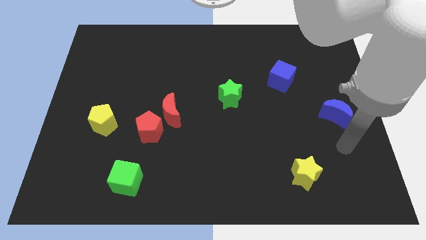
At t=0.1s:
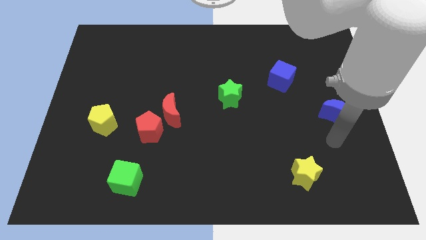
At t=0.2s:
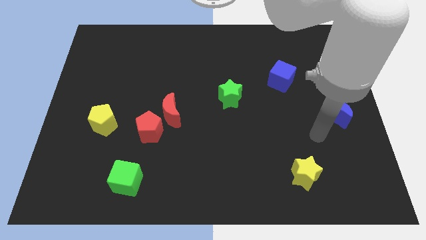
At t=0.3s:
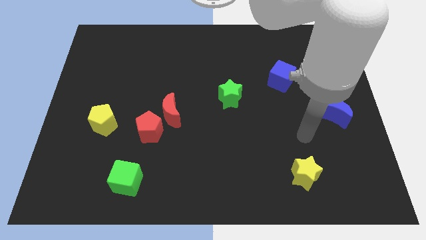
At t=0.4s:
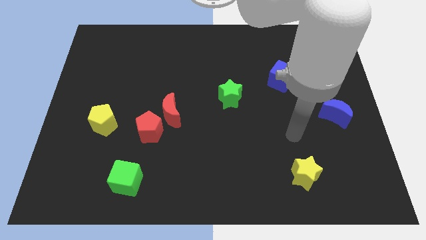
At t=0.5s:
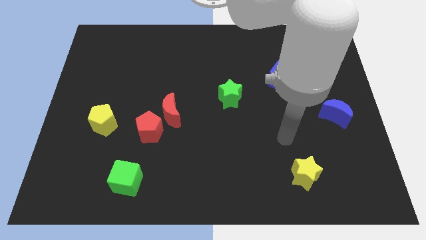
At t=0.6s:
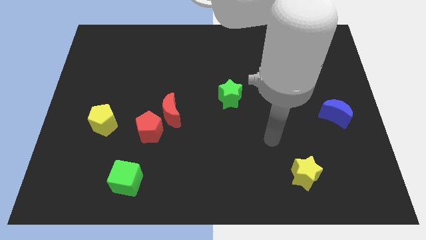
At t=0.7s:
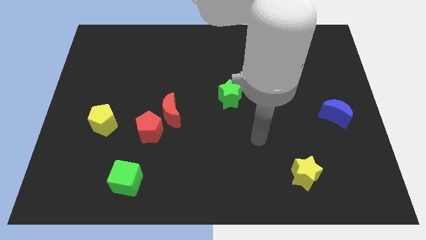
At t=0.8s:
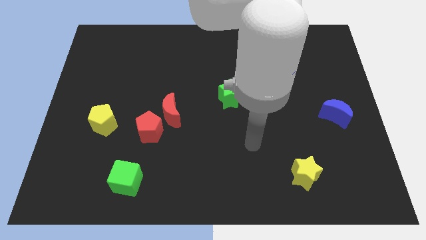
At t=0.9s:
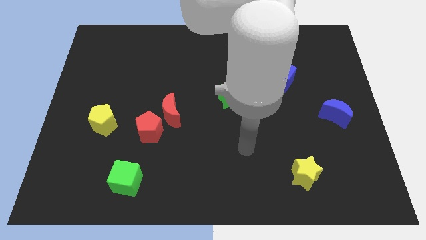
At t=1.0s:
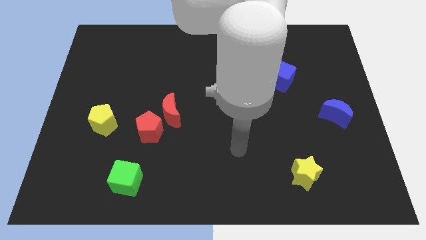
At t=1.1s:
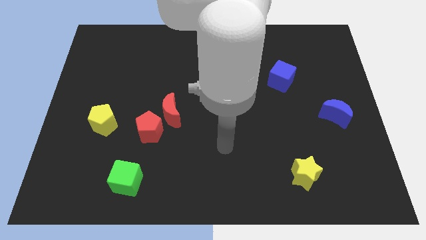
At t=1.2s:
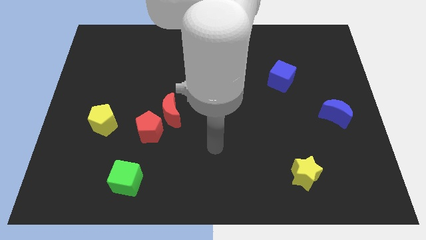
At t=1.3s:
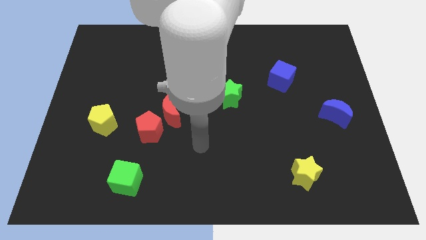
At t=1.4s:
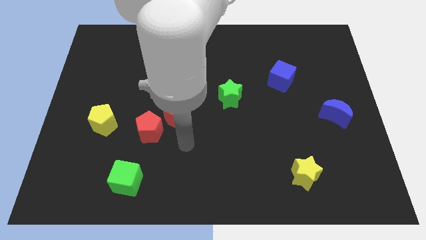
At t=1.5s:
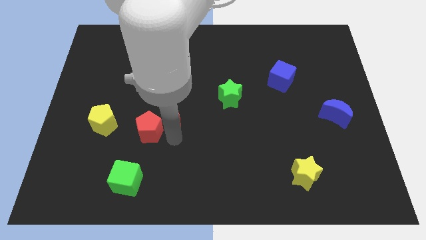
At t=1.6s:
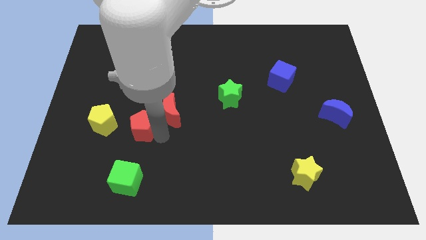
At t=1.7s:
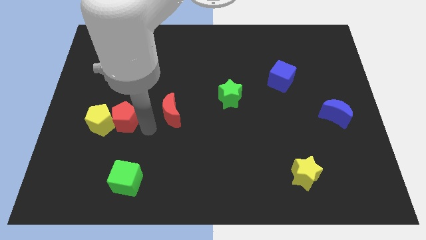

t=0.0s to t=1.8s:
separate the red moon from the red pentagon

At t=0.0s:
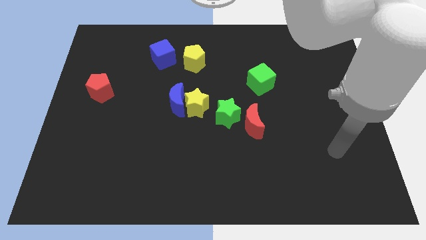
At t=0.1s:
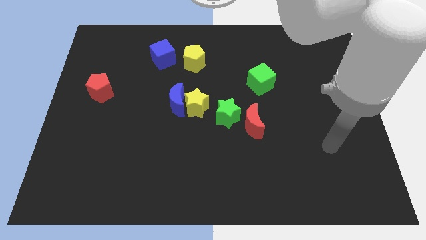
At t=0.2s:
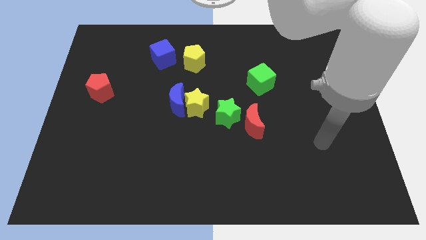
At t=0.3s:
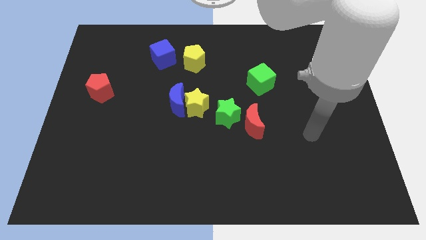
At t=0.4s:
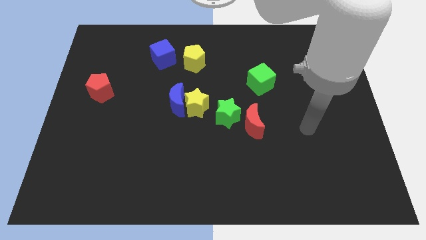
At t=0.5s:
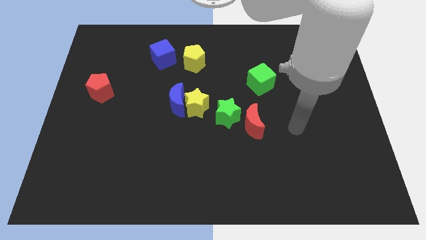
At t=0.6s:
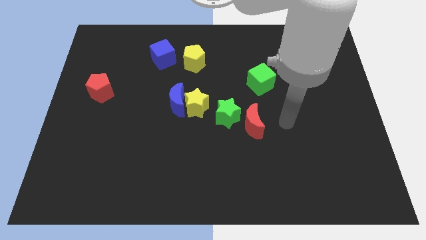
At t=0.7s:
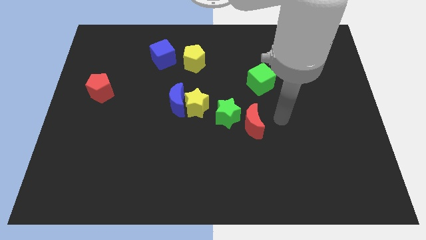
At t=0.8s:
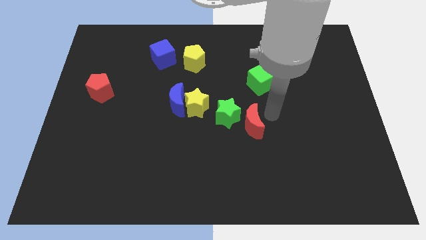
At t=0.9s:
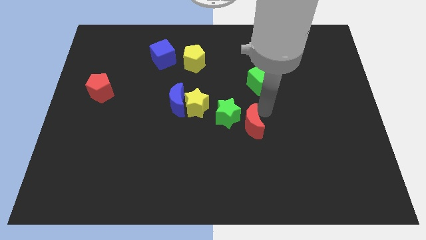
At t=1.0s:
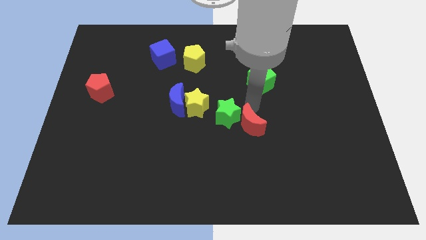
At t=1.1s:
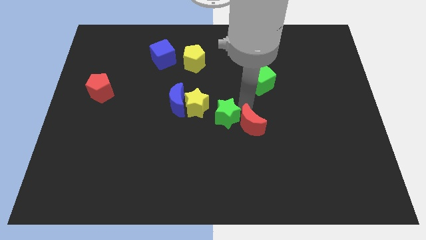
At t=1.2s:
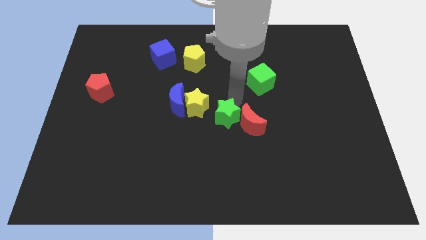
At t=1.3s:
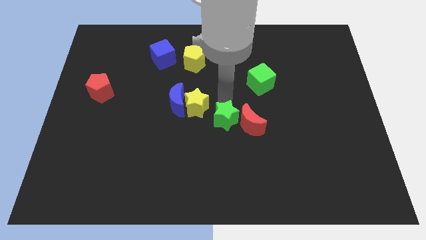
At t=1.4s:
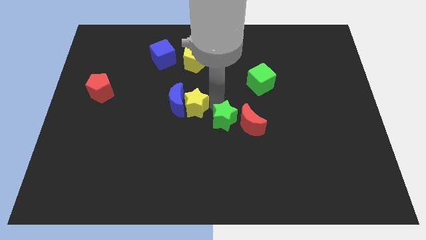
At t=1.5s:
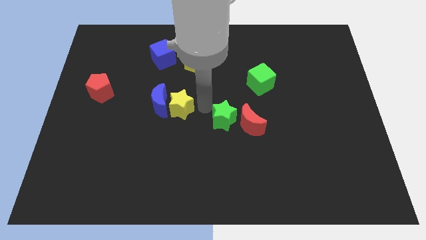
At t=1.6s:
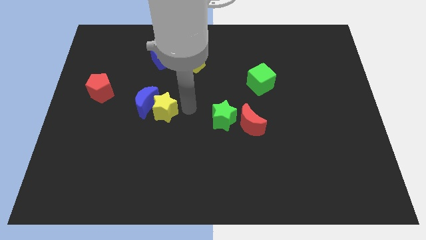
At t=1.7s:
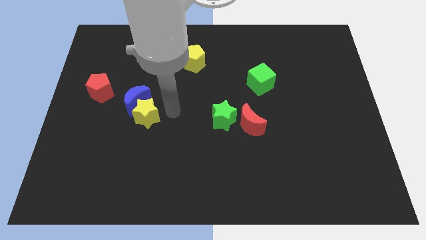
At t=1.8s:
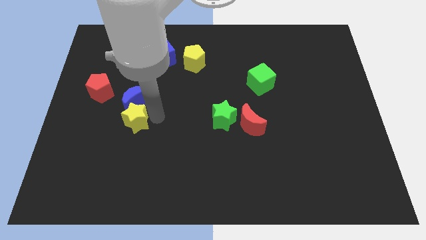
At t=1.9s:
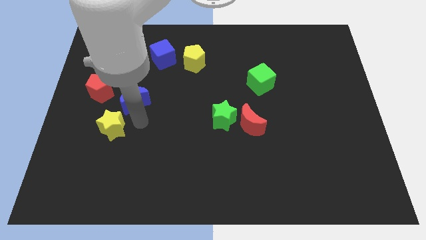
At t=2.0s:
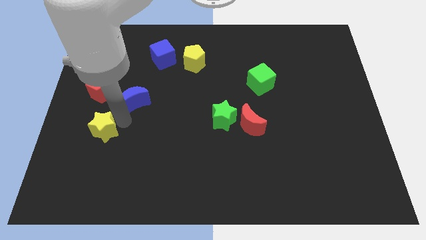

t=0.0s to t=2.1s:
separate the blue moon from the yellow star

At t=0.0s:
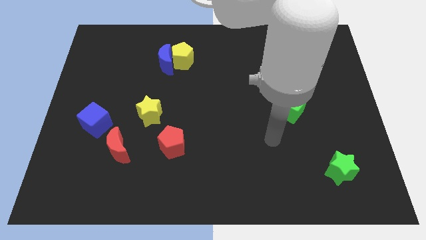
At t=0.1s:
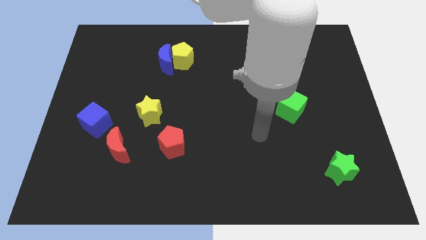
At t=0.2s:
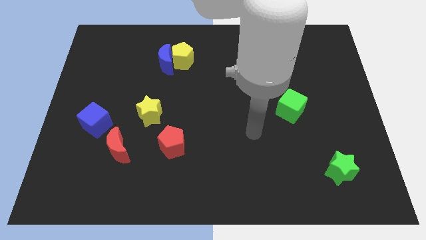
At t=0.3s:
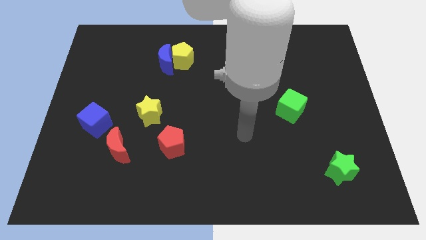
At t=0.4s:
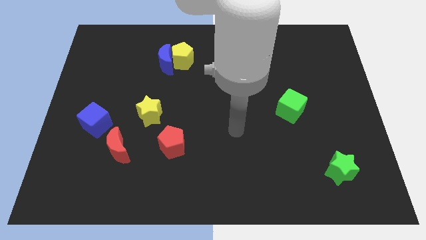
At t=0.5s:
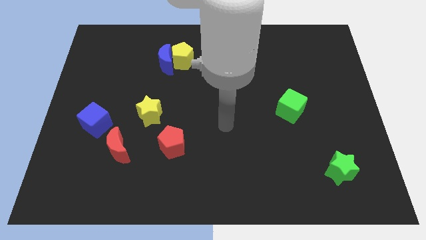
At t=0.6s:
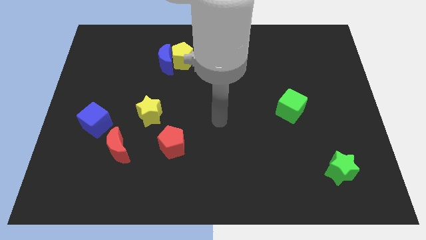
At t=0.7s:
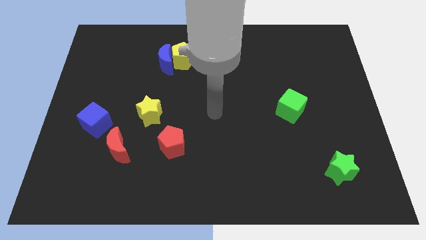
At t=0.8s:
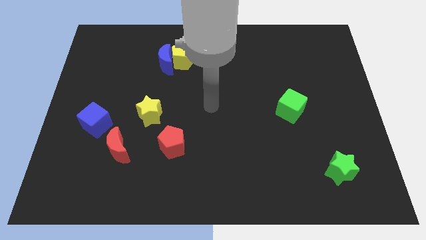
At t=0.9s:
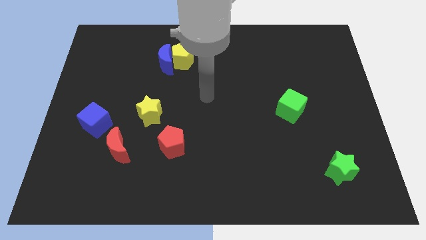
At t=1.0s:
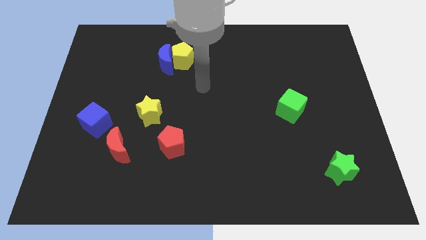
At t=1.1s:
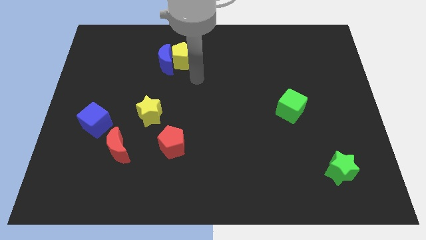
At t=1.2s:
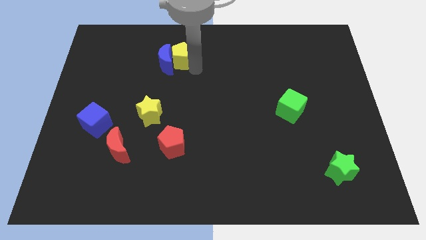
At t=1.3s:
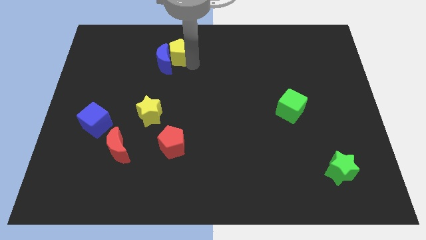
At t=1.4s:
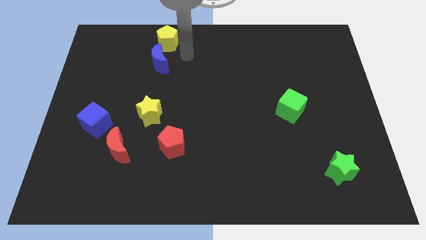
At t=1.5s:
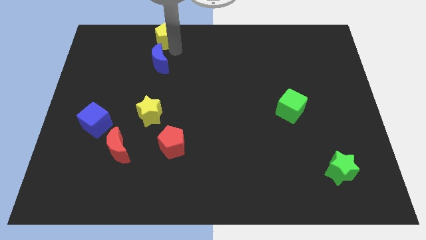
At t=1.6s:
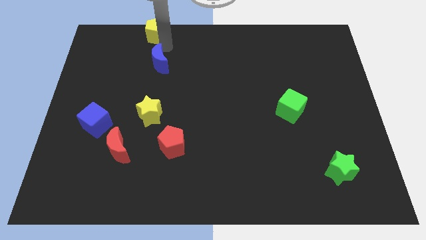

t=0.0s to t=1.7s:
separate the blue moon from the yellow pentagon

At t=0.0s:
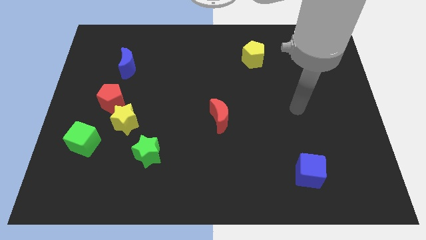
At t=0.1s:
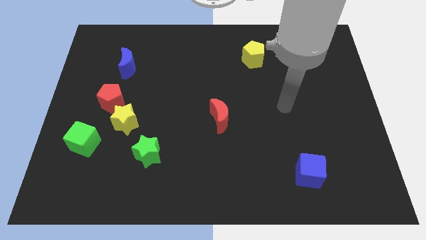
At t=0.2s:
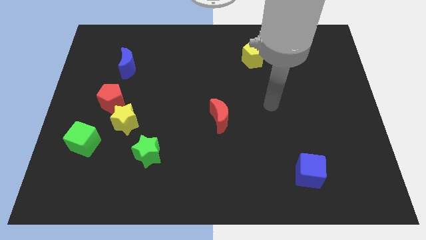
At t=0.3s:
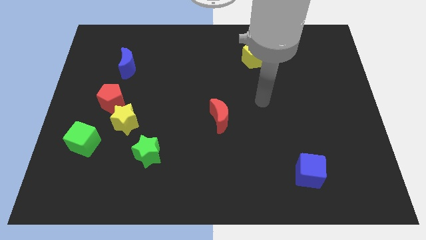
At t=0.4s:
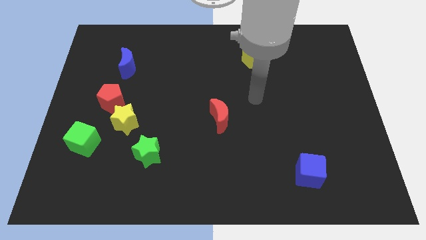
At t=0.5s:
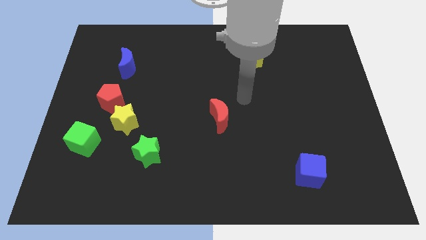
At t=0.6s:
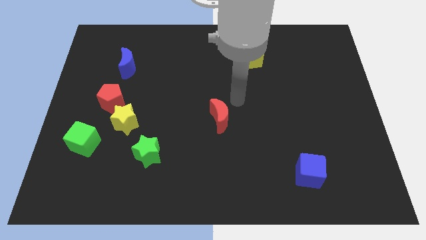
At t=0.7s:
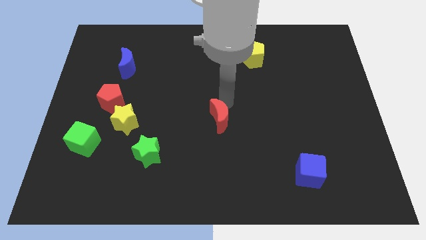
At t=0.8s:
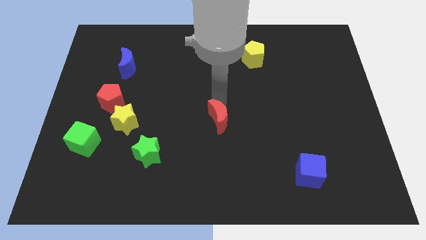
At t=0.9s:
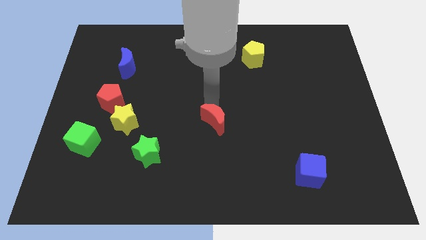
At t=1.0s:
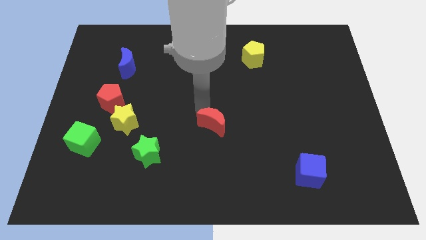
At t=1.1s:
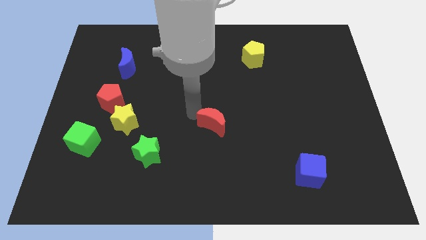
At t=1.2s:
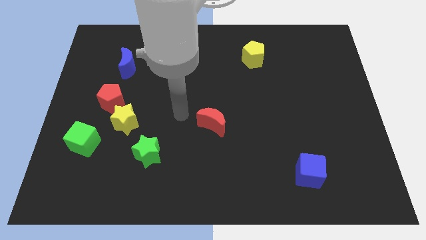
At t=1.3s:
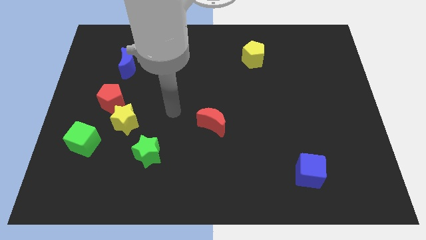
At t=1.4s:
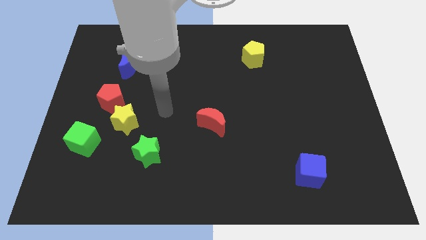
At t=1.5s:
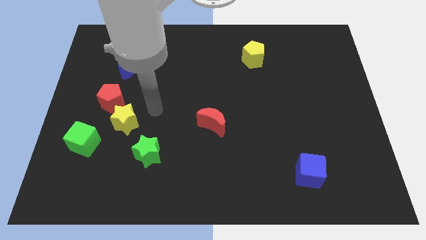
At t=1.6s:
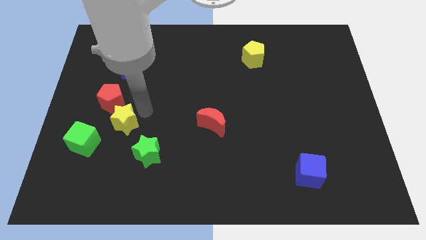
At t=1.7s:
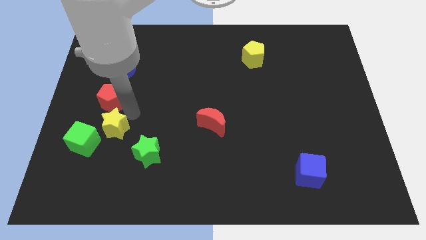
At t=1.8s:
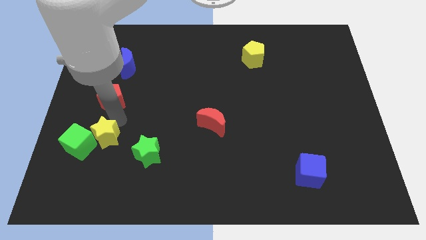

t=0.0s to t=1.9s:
pull the red pentagon apart from the yellow star

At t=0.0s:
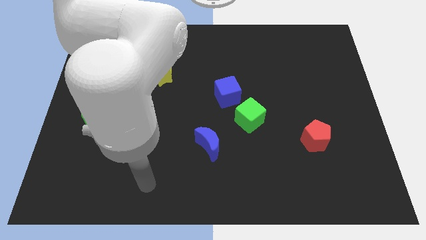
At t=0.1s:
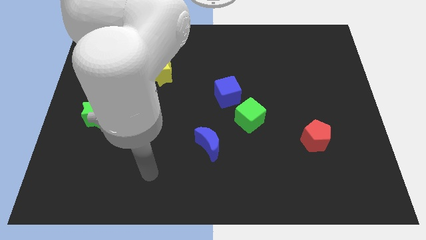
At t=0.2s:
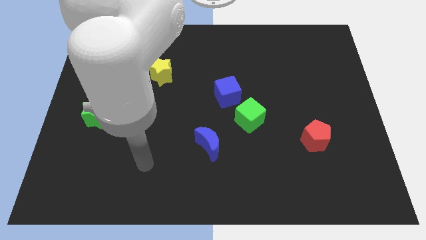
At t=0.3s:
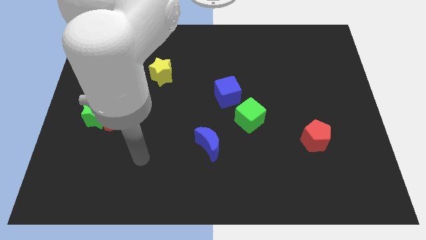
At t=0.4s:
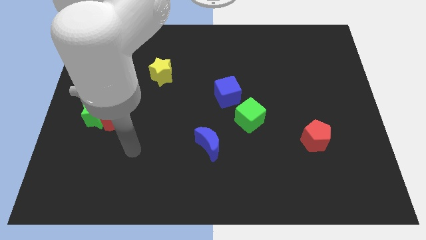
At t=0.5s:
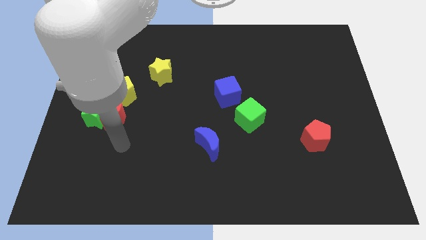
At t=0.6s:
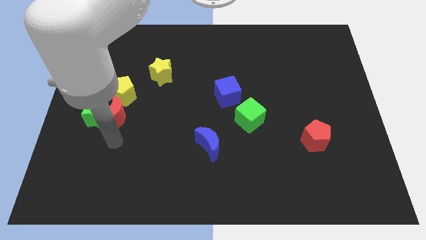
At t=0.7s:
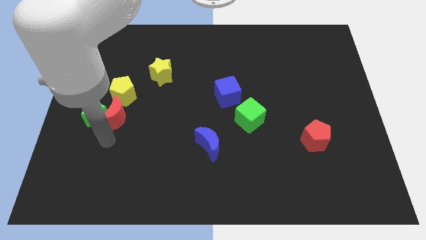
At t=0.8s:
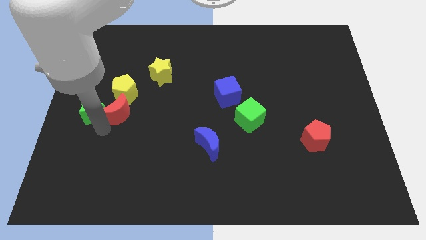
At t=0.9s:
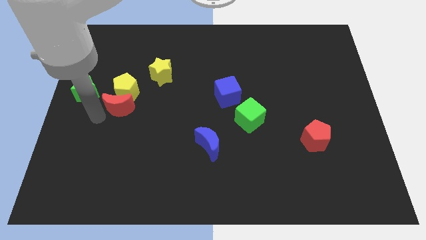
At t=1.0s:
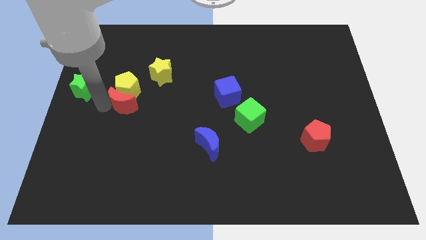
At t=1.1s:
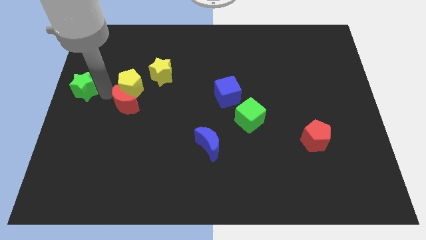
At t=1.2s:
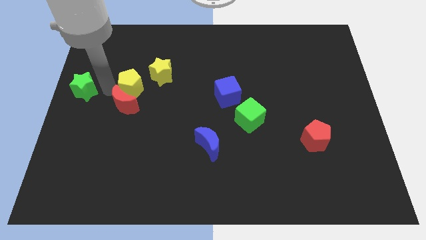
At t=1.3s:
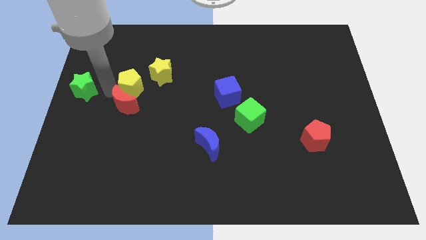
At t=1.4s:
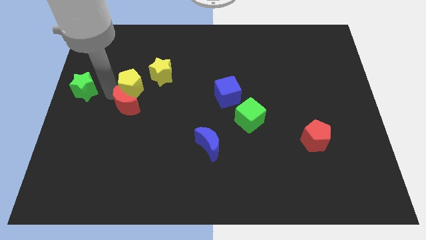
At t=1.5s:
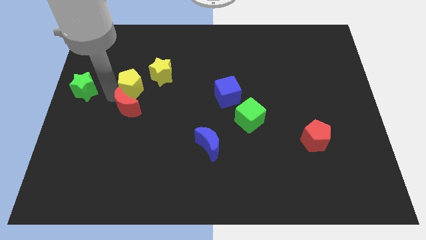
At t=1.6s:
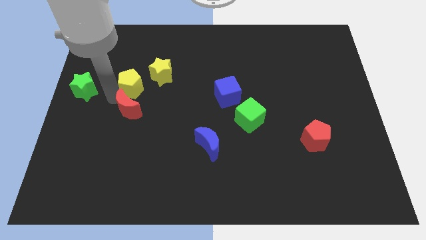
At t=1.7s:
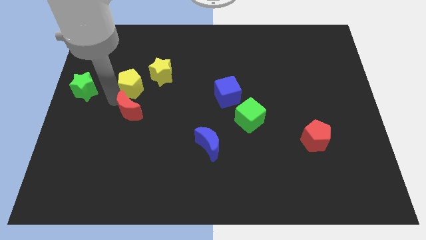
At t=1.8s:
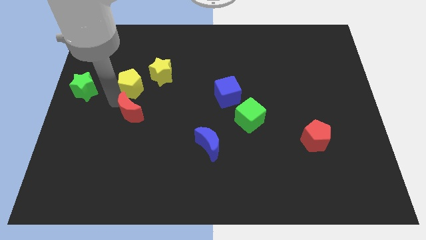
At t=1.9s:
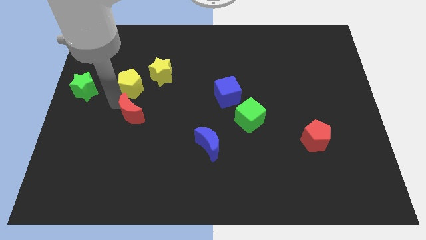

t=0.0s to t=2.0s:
pull the red moon apart from the green star and yellow pentagon
